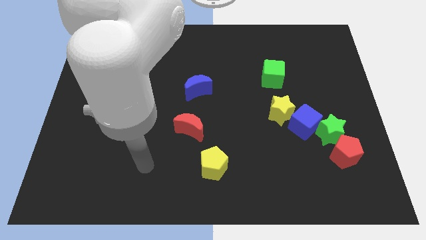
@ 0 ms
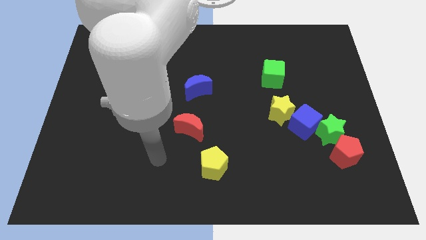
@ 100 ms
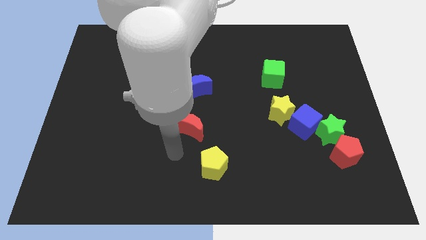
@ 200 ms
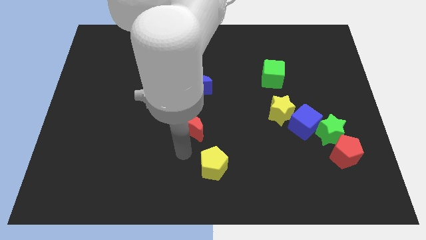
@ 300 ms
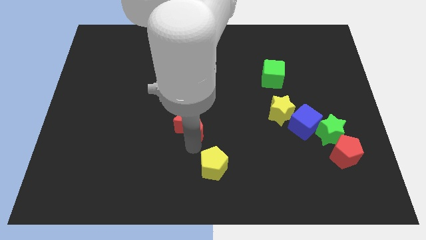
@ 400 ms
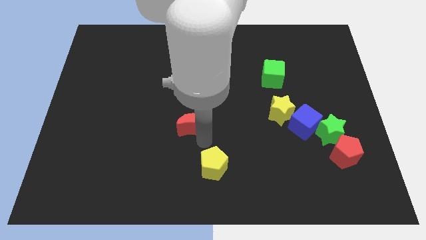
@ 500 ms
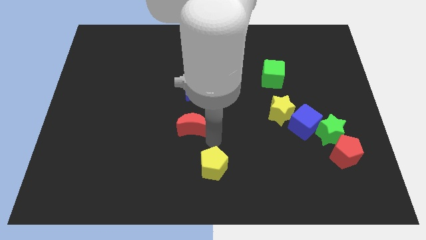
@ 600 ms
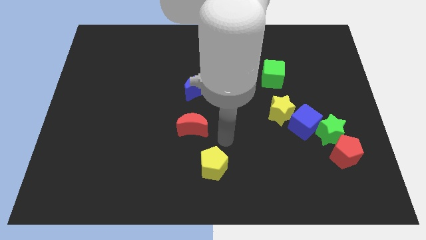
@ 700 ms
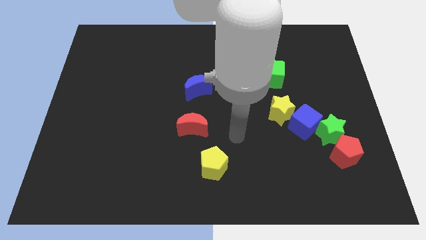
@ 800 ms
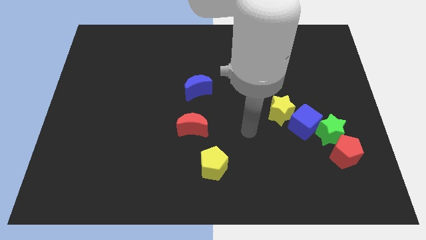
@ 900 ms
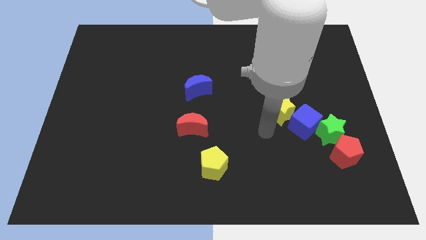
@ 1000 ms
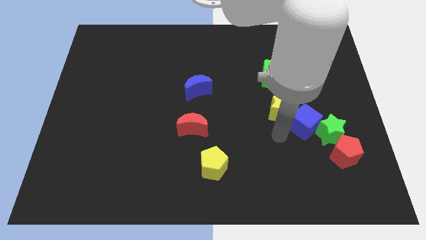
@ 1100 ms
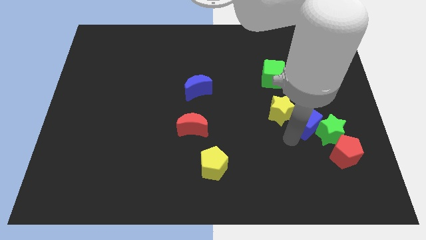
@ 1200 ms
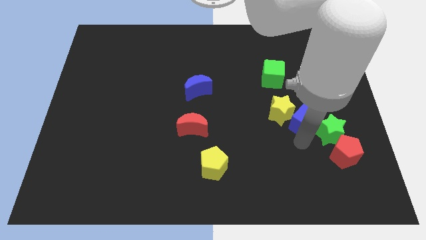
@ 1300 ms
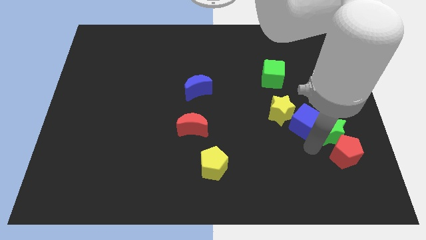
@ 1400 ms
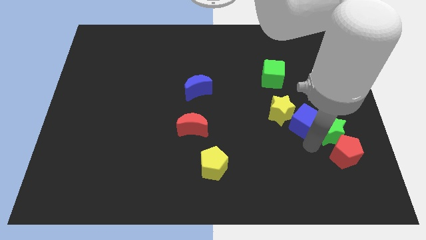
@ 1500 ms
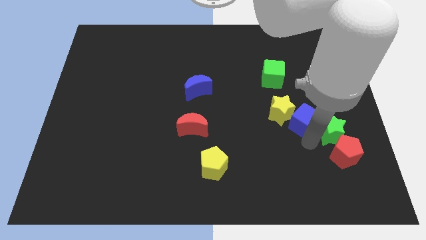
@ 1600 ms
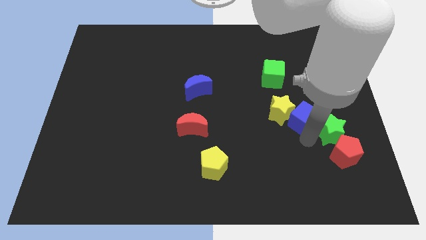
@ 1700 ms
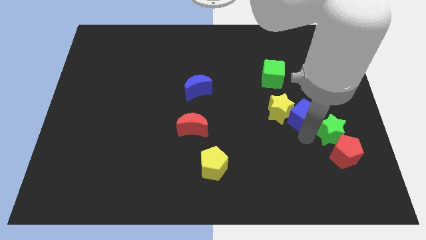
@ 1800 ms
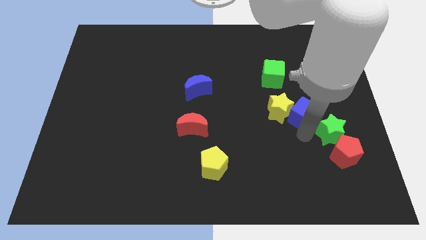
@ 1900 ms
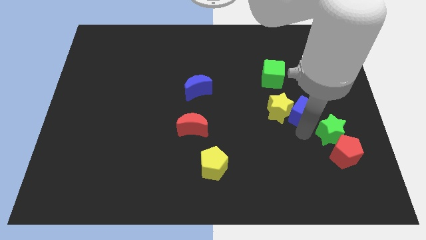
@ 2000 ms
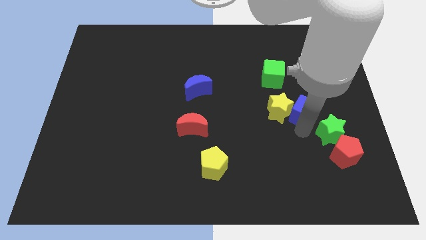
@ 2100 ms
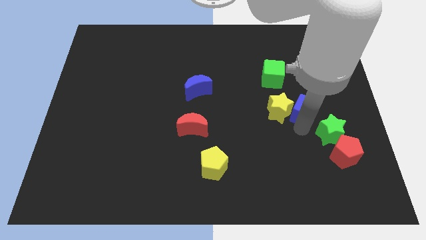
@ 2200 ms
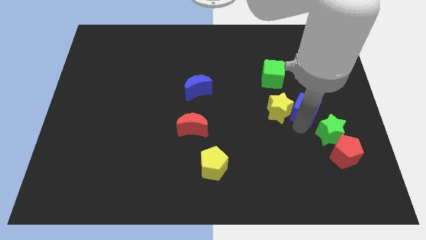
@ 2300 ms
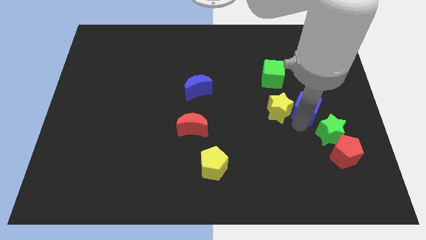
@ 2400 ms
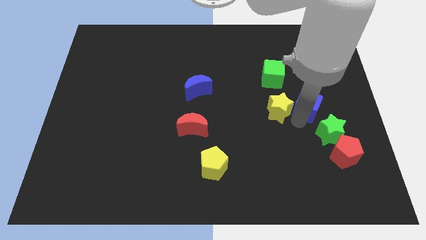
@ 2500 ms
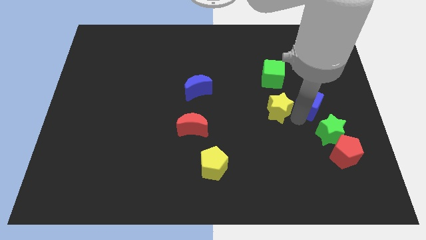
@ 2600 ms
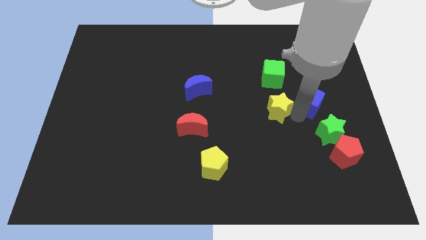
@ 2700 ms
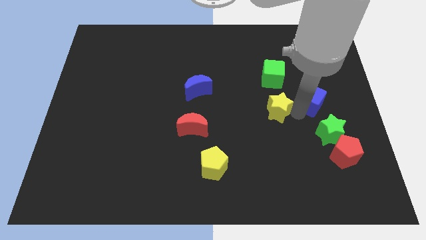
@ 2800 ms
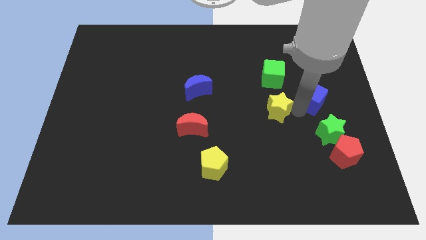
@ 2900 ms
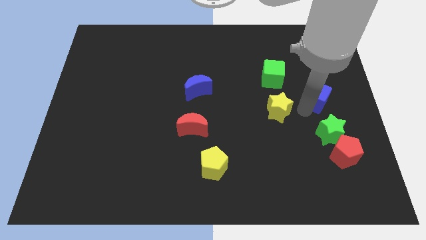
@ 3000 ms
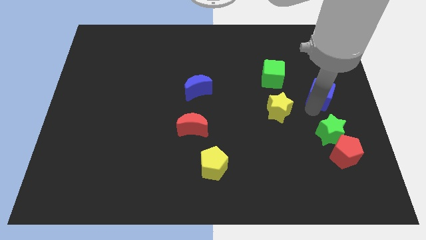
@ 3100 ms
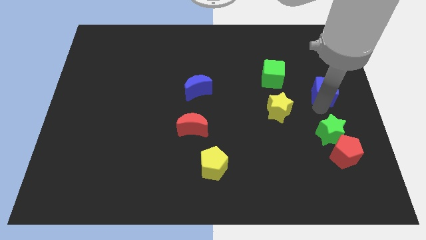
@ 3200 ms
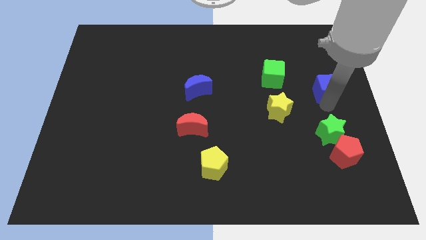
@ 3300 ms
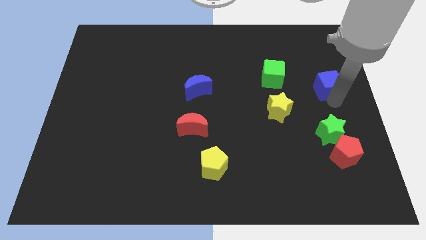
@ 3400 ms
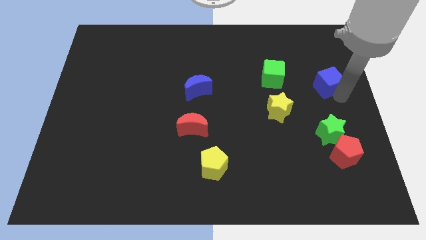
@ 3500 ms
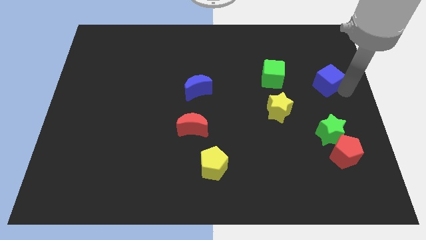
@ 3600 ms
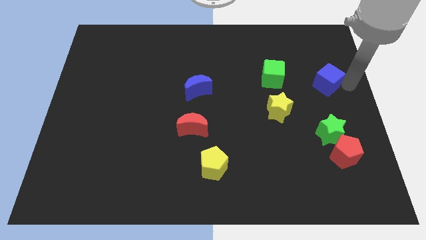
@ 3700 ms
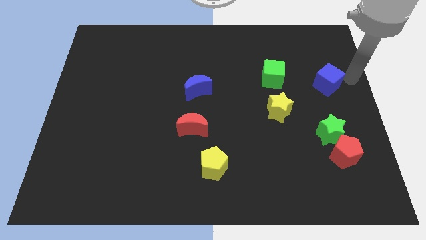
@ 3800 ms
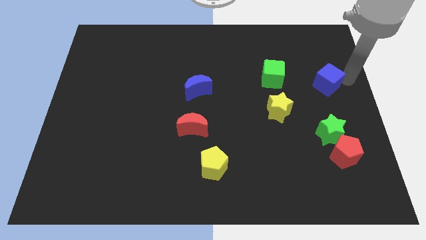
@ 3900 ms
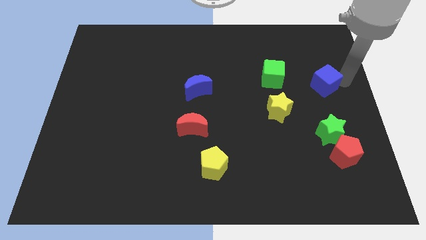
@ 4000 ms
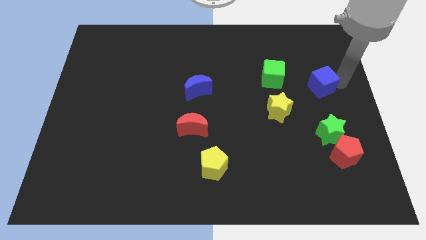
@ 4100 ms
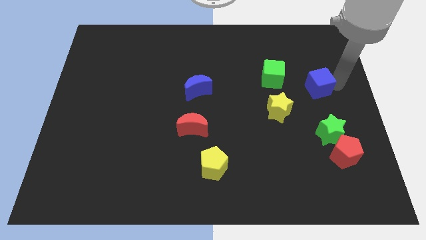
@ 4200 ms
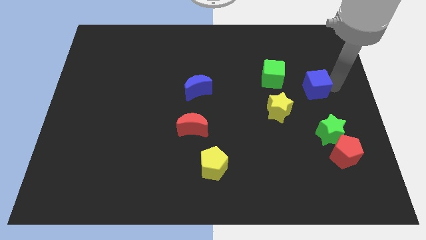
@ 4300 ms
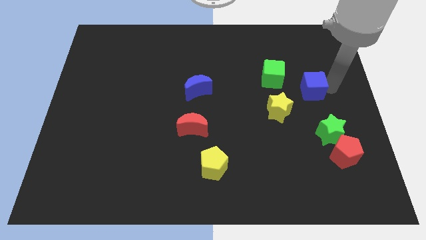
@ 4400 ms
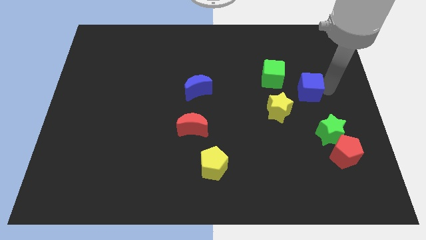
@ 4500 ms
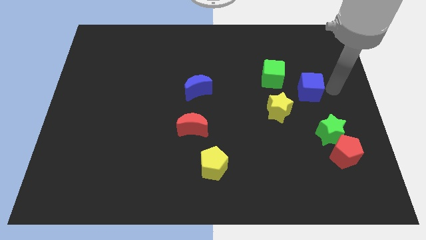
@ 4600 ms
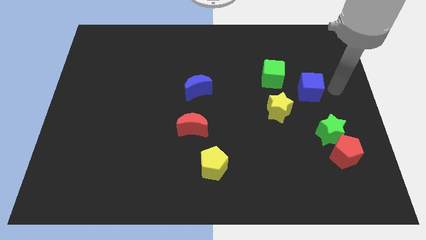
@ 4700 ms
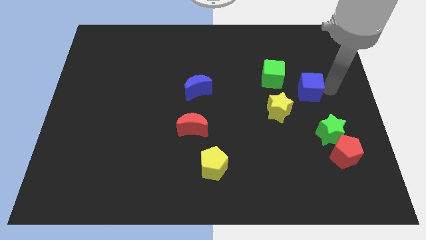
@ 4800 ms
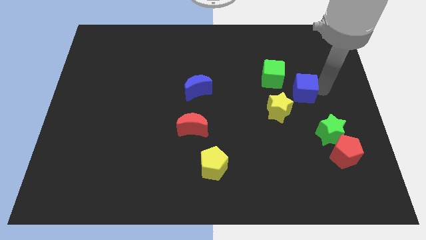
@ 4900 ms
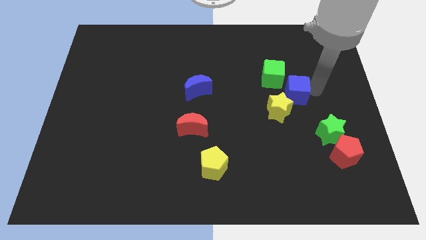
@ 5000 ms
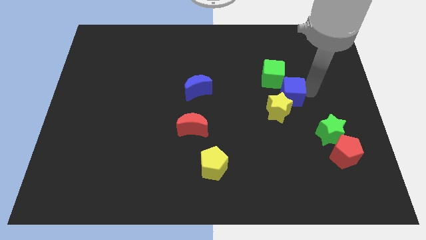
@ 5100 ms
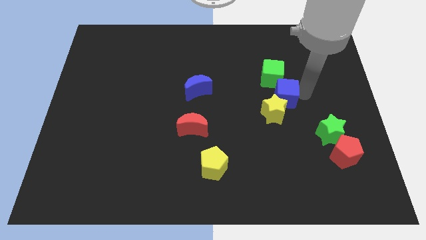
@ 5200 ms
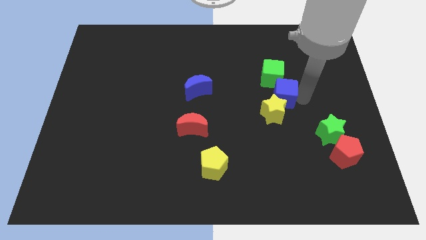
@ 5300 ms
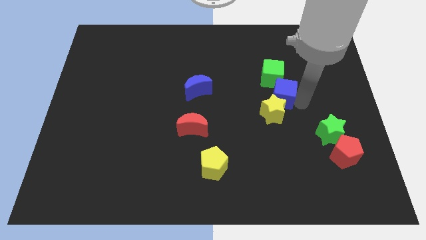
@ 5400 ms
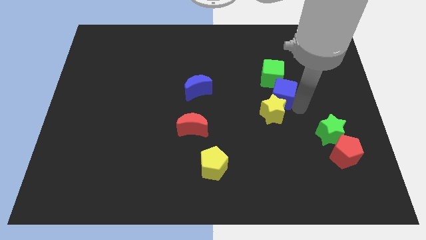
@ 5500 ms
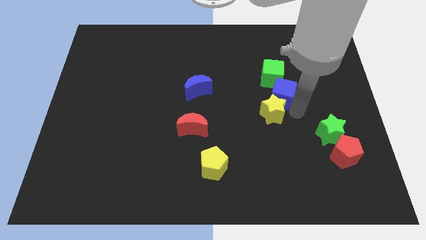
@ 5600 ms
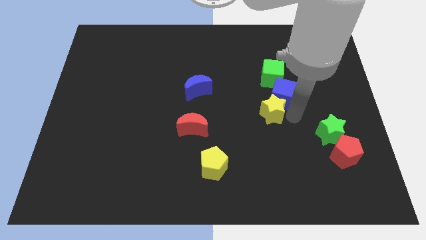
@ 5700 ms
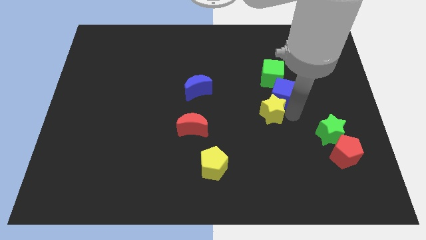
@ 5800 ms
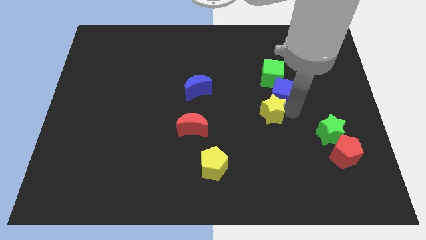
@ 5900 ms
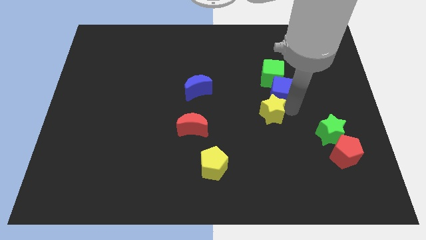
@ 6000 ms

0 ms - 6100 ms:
move the blue cube to the green cube
